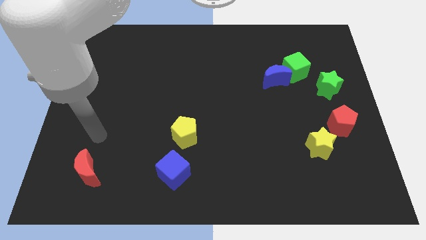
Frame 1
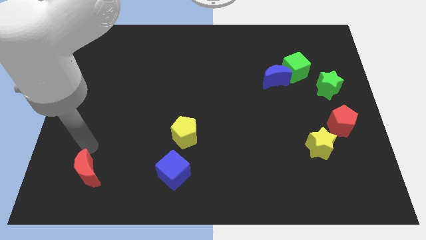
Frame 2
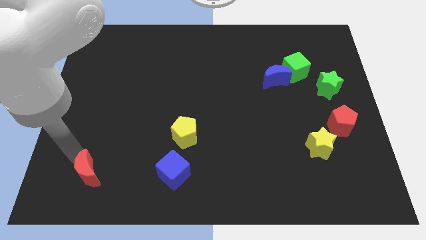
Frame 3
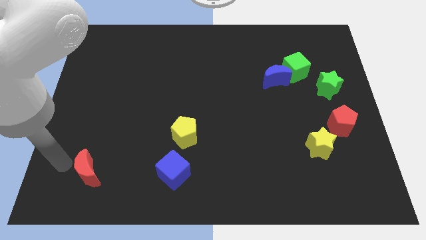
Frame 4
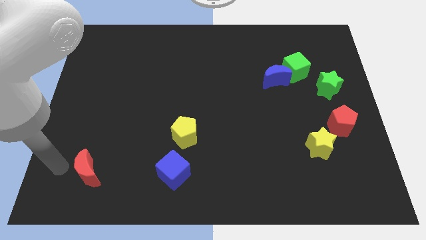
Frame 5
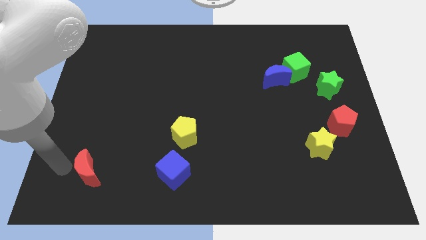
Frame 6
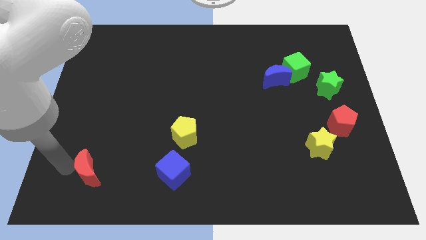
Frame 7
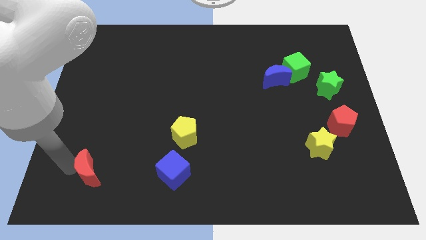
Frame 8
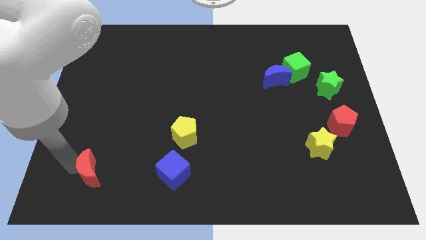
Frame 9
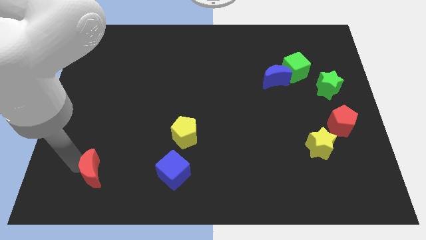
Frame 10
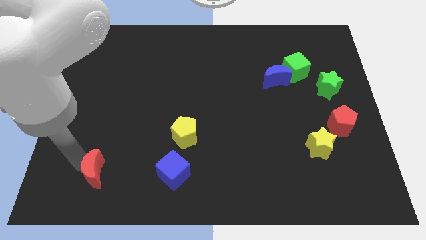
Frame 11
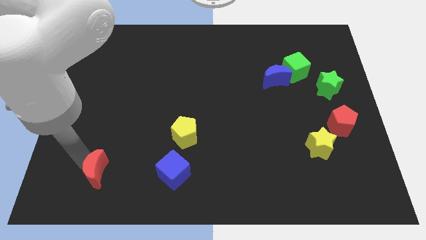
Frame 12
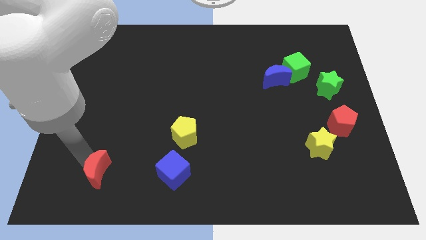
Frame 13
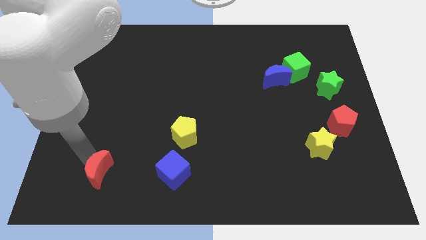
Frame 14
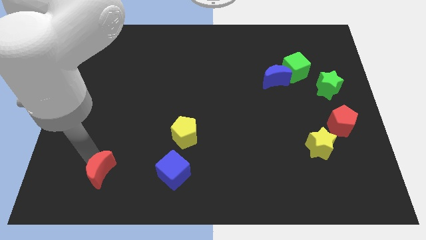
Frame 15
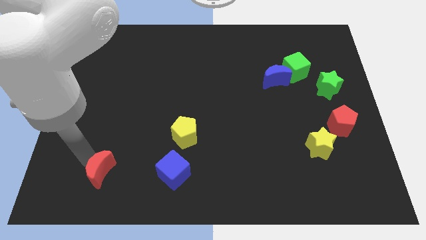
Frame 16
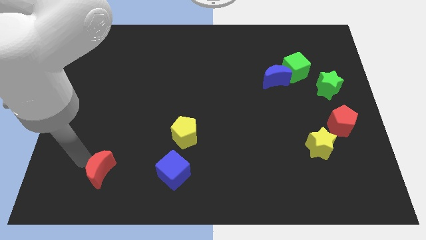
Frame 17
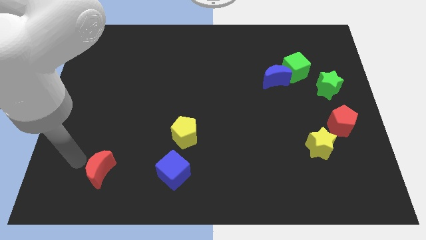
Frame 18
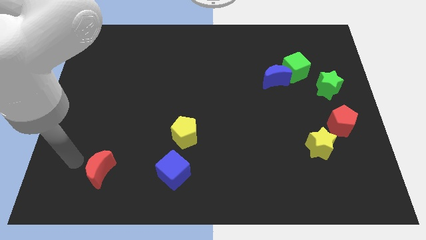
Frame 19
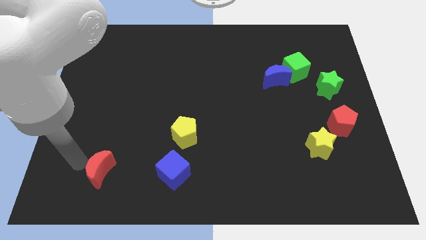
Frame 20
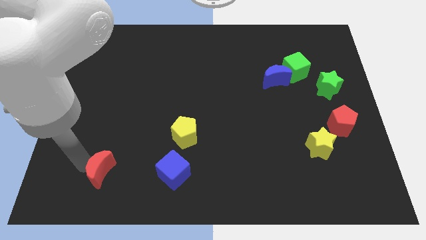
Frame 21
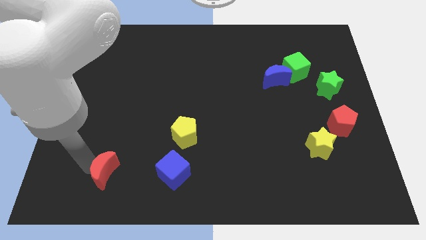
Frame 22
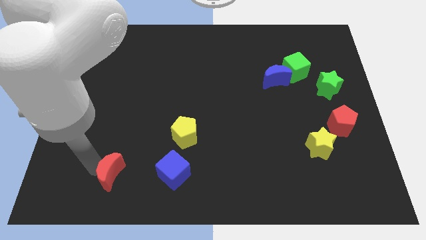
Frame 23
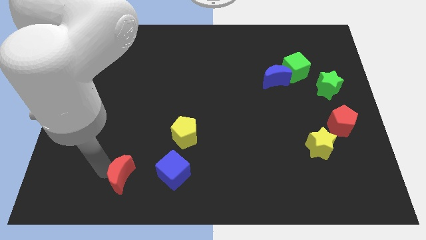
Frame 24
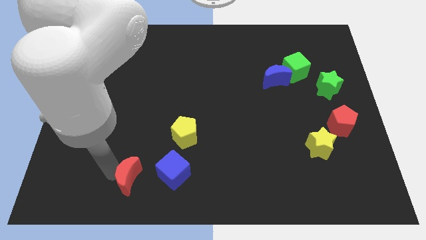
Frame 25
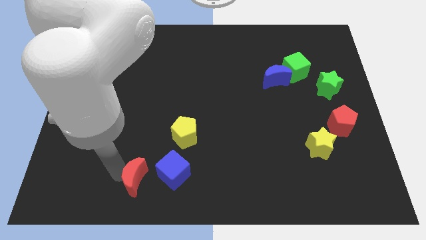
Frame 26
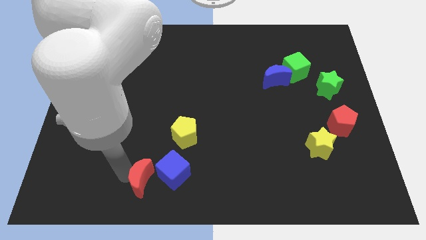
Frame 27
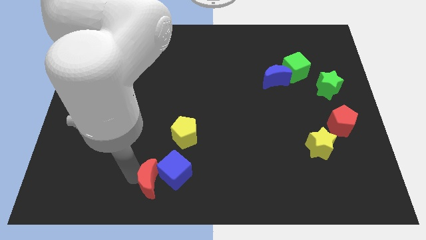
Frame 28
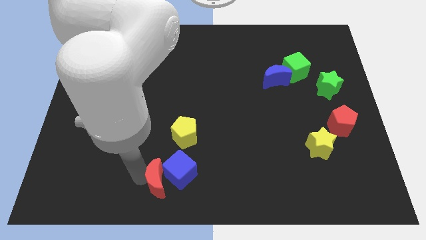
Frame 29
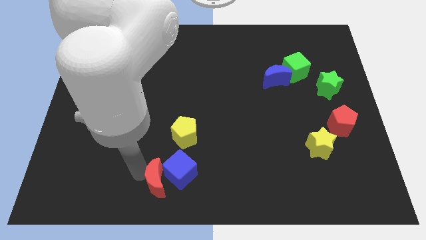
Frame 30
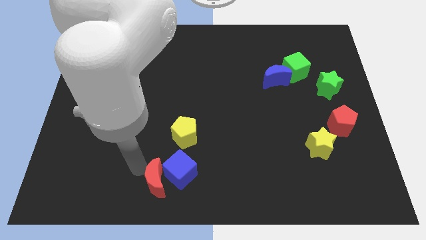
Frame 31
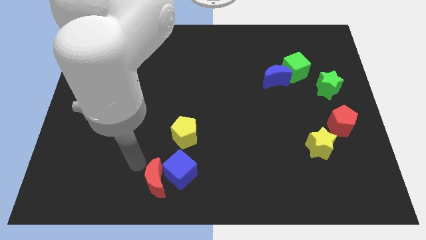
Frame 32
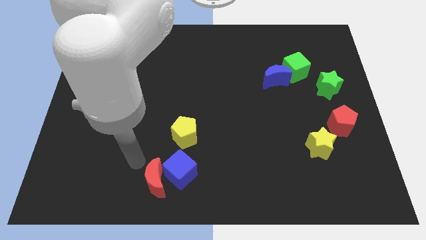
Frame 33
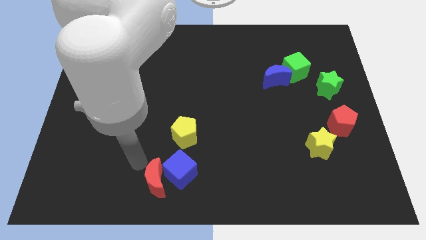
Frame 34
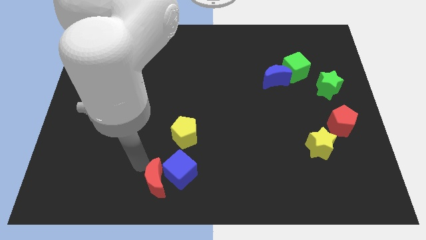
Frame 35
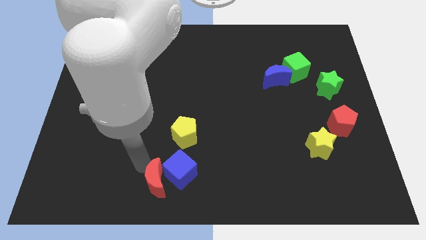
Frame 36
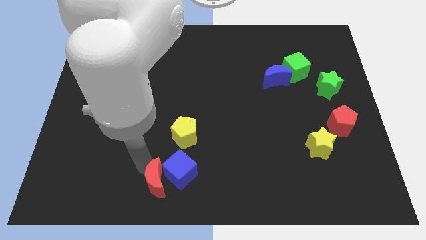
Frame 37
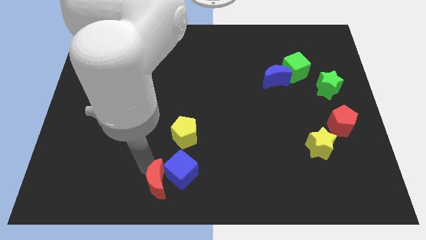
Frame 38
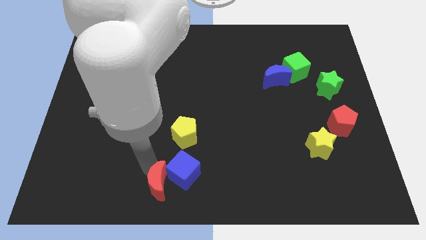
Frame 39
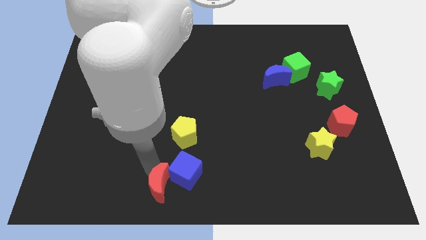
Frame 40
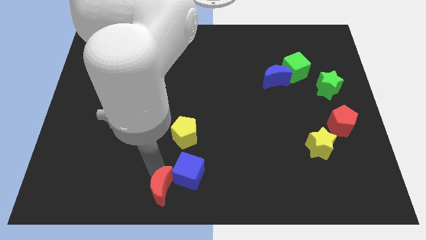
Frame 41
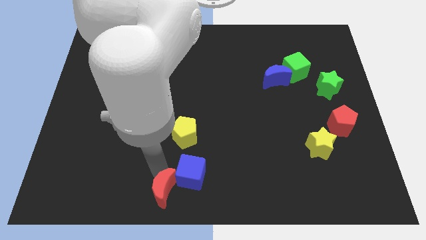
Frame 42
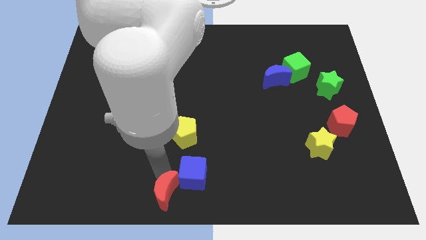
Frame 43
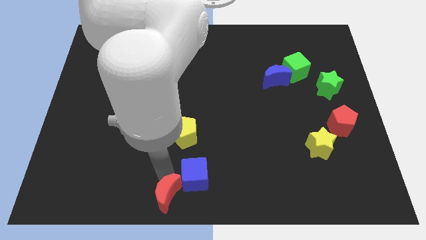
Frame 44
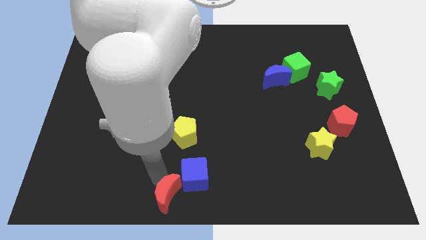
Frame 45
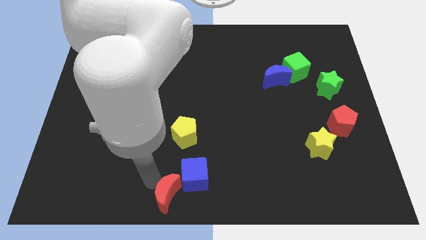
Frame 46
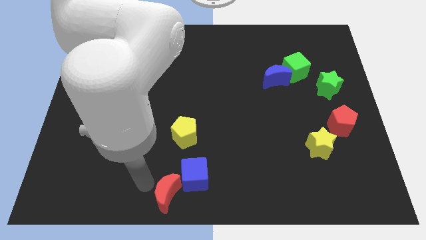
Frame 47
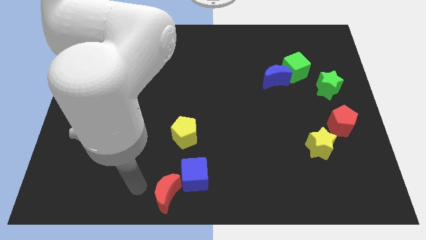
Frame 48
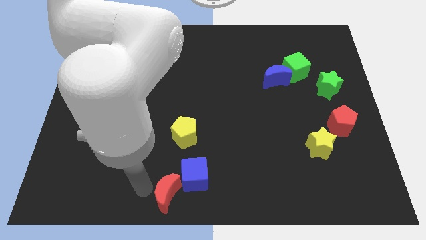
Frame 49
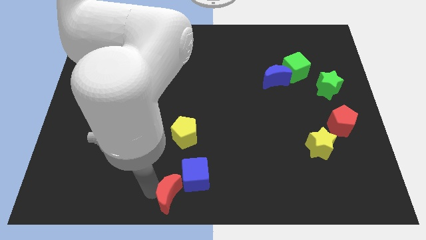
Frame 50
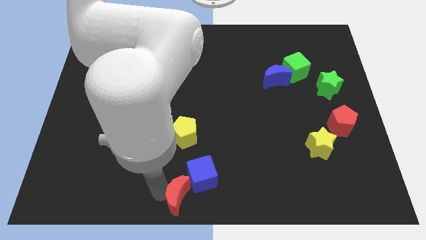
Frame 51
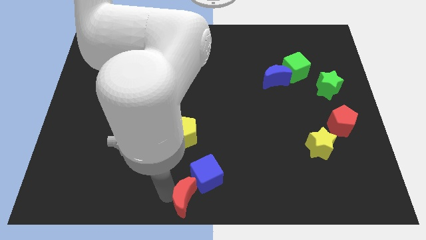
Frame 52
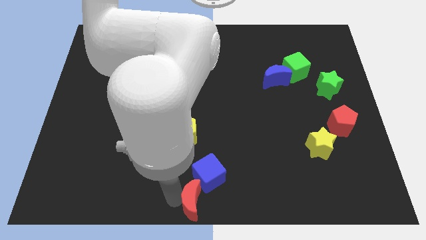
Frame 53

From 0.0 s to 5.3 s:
push the red moon right

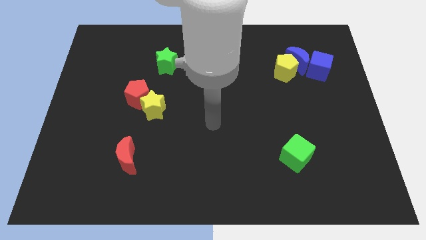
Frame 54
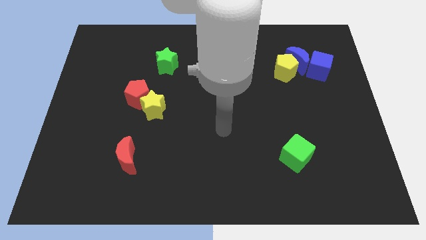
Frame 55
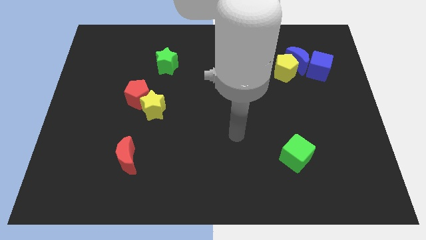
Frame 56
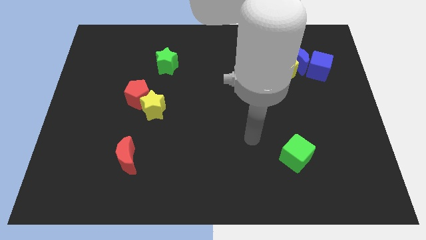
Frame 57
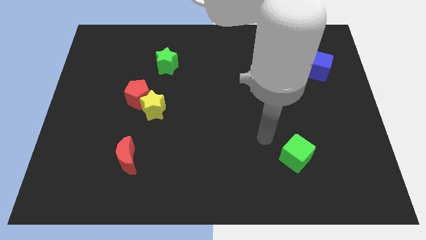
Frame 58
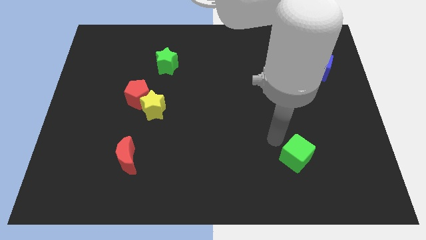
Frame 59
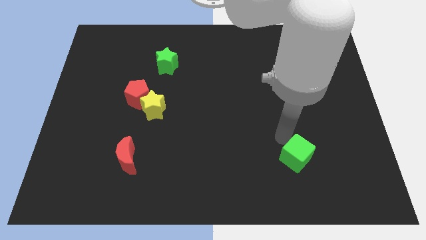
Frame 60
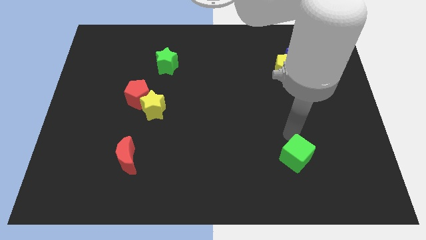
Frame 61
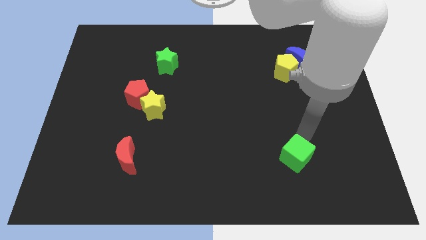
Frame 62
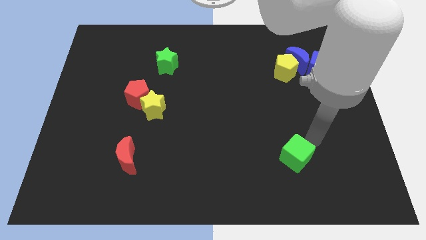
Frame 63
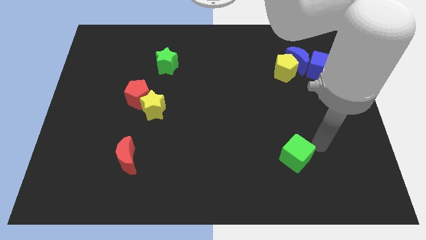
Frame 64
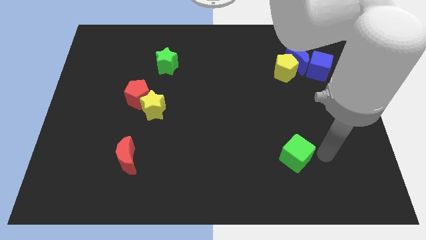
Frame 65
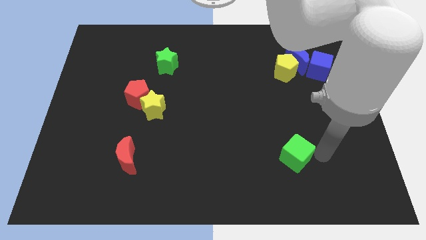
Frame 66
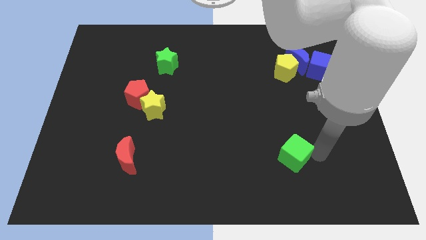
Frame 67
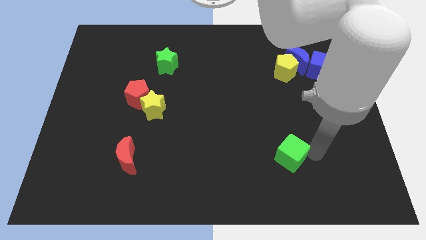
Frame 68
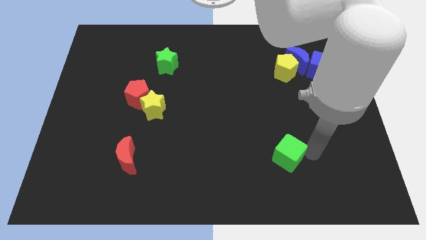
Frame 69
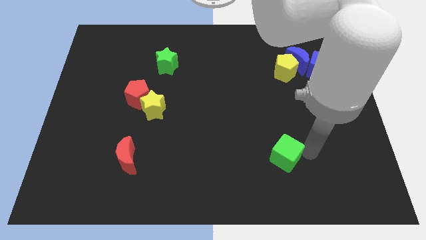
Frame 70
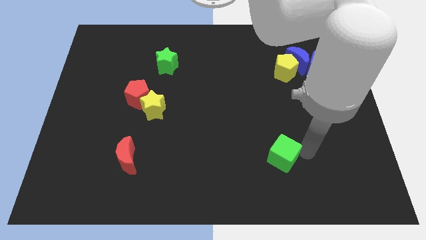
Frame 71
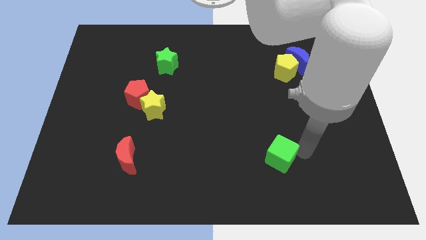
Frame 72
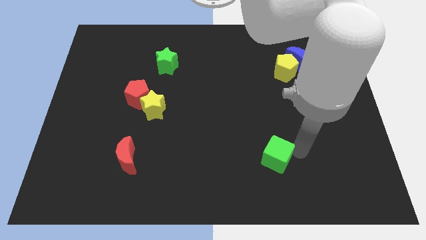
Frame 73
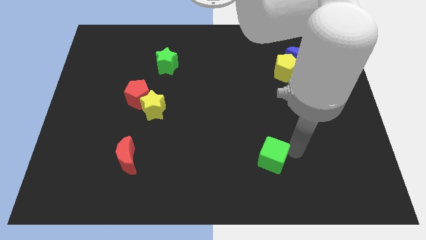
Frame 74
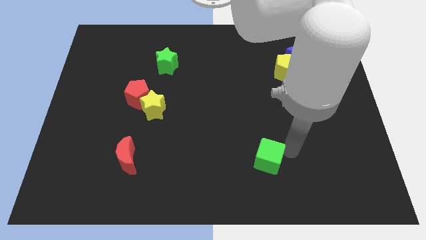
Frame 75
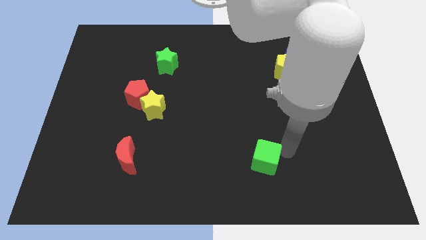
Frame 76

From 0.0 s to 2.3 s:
move the green cube to the left a bit

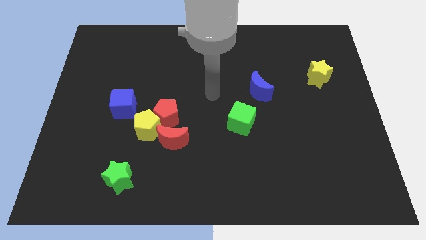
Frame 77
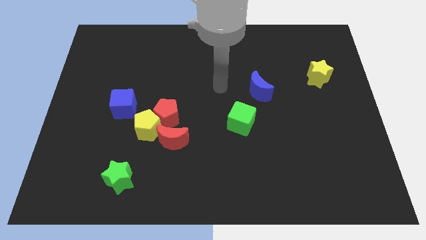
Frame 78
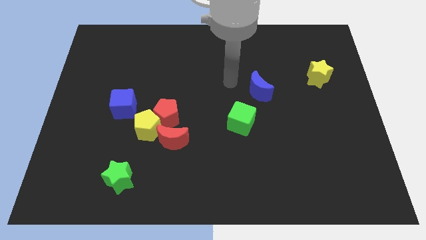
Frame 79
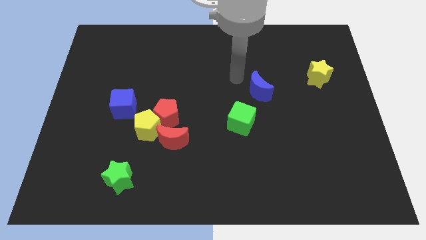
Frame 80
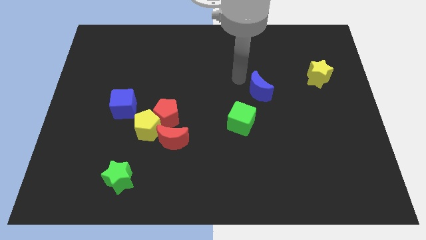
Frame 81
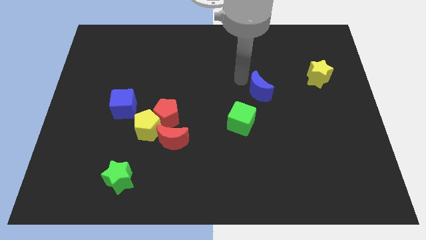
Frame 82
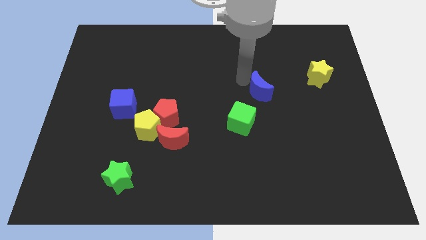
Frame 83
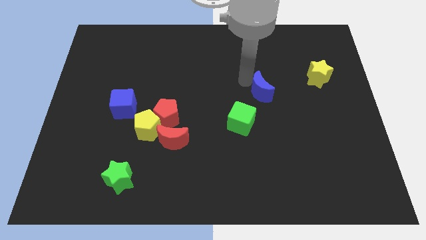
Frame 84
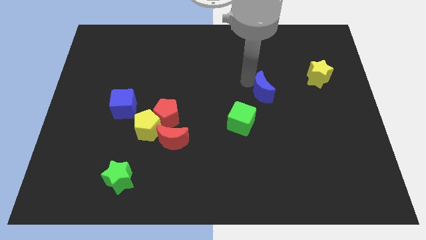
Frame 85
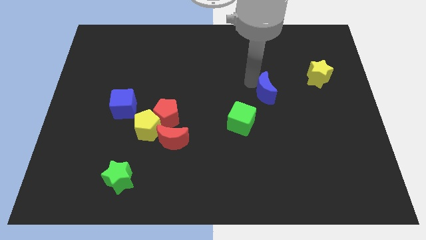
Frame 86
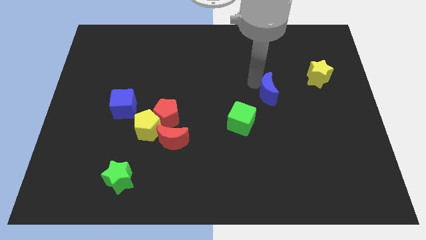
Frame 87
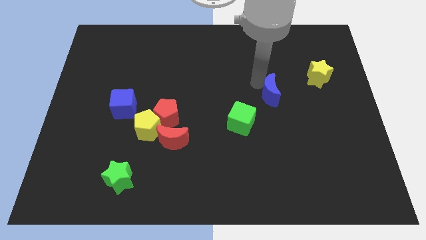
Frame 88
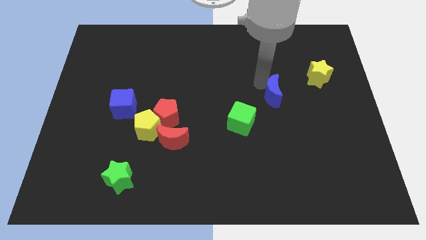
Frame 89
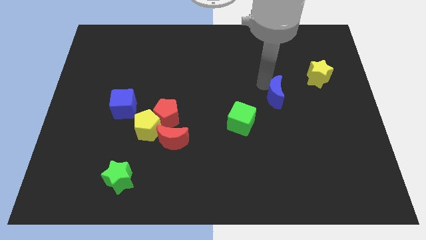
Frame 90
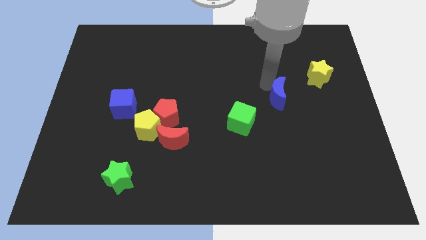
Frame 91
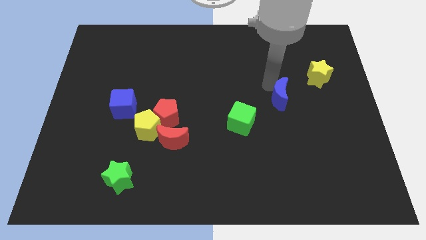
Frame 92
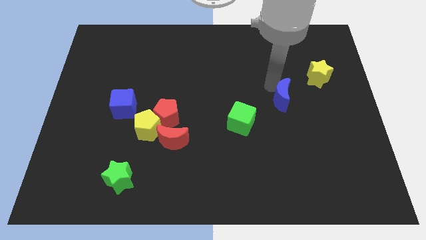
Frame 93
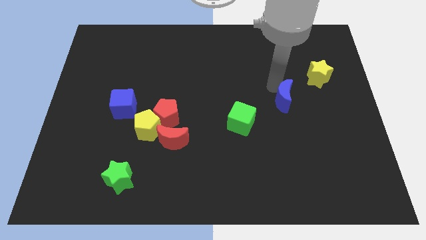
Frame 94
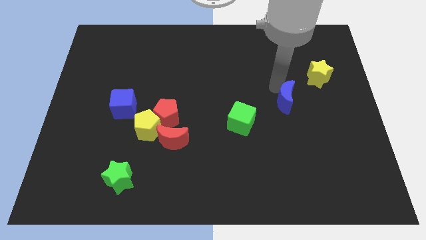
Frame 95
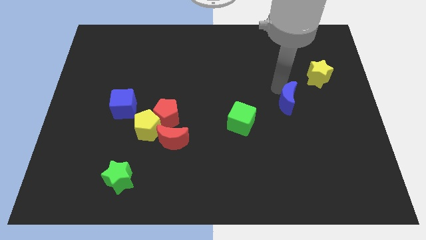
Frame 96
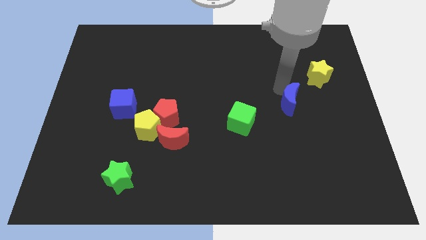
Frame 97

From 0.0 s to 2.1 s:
slightly push the blue moon diagonally down and to the right
